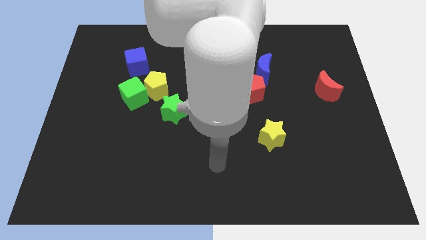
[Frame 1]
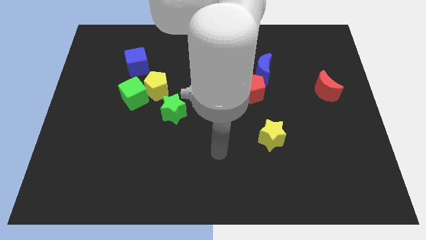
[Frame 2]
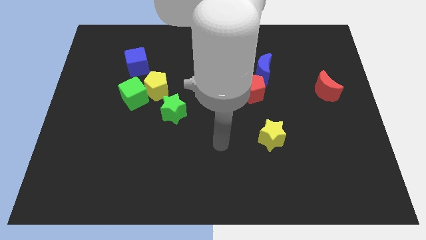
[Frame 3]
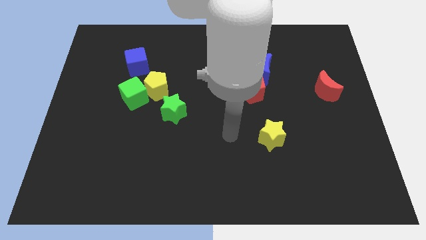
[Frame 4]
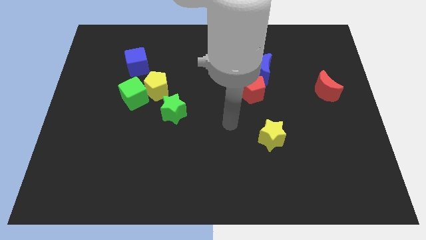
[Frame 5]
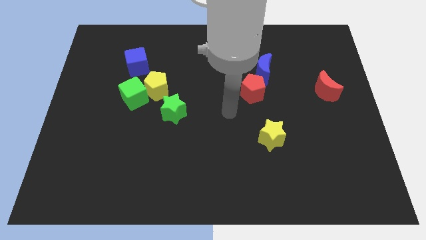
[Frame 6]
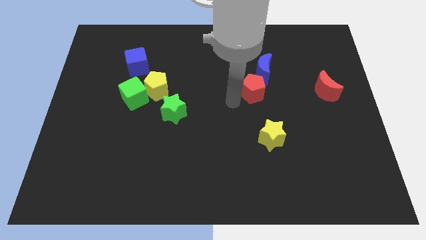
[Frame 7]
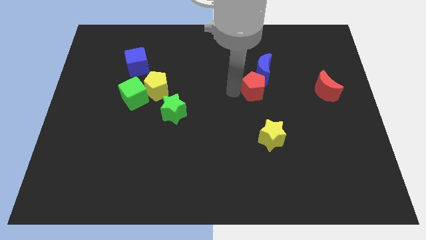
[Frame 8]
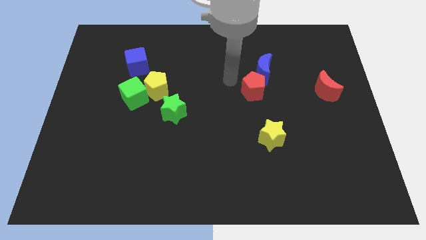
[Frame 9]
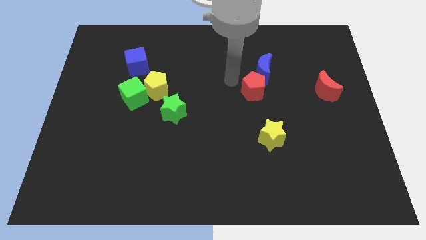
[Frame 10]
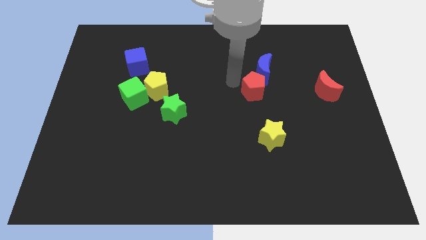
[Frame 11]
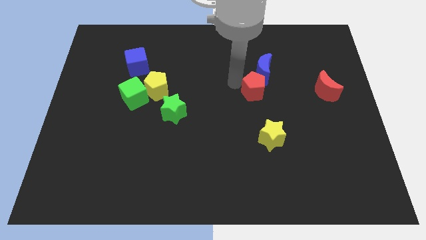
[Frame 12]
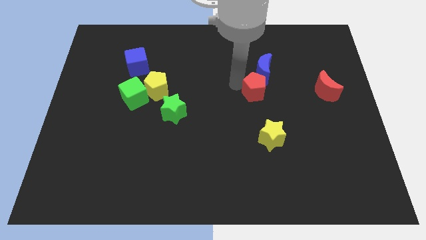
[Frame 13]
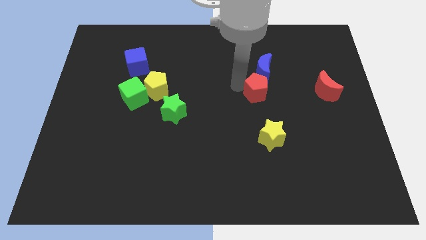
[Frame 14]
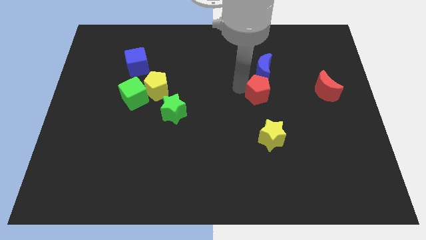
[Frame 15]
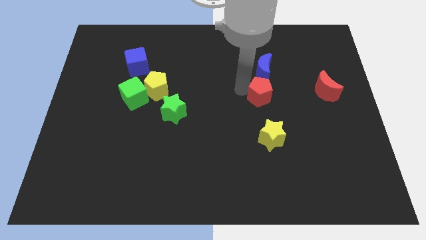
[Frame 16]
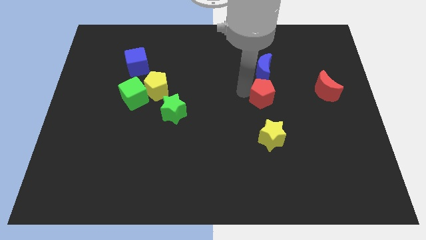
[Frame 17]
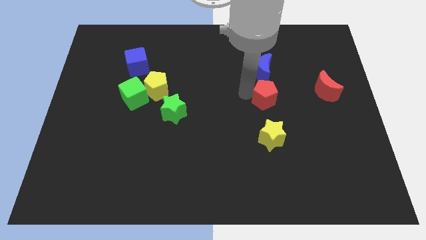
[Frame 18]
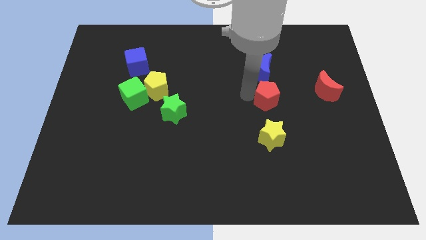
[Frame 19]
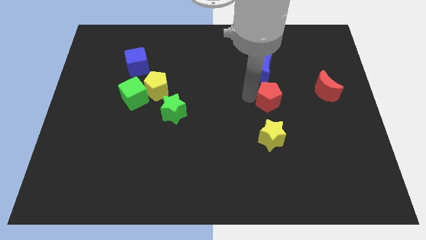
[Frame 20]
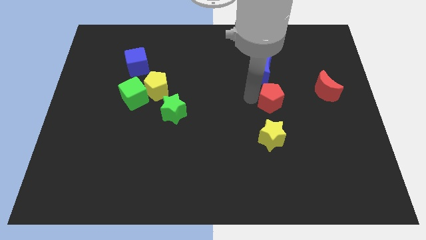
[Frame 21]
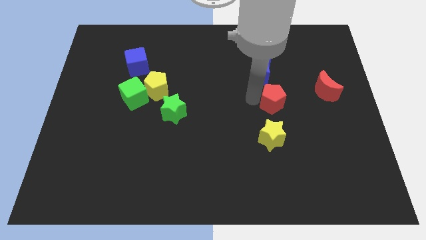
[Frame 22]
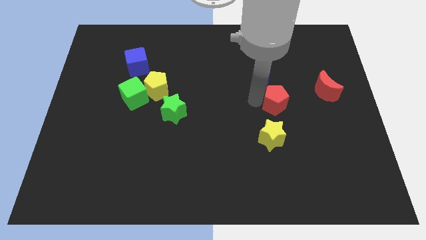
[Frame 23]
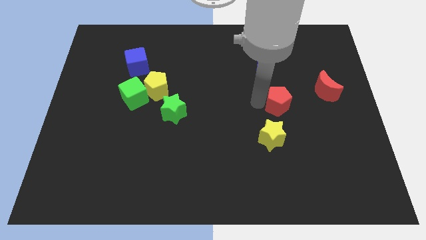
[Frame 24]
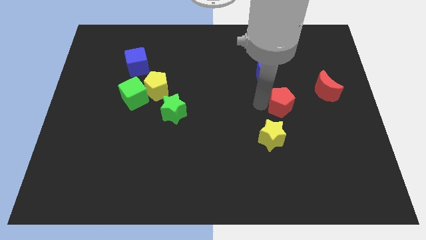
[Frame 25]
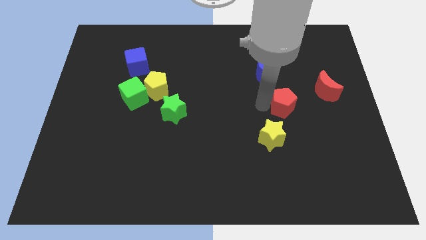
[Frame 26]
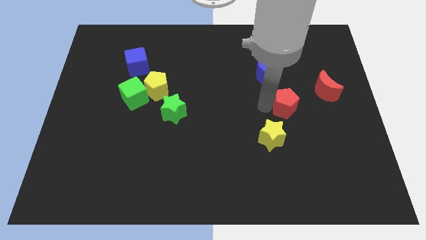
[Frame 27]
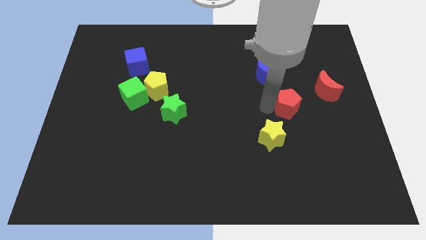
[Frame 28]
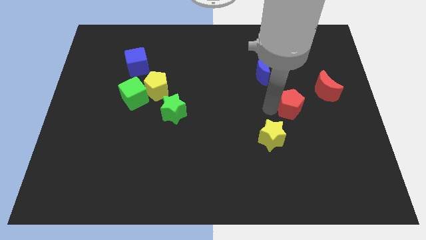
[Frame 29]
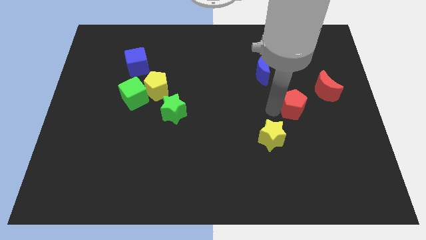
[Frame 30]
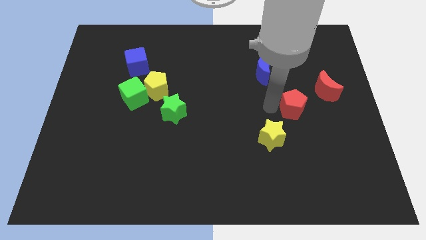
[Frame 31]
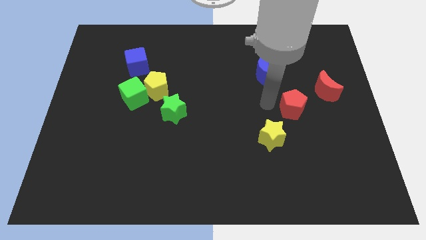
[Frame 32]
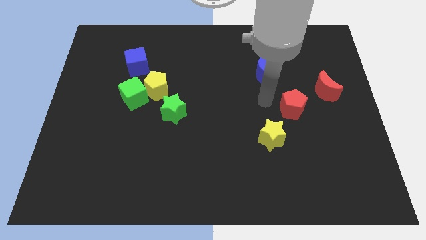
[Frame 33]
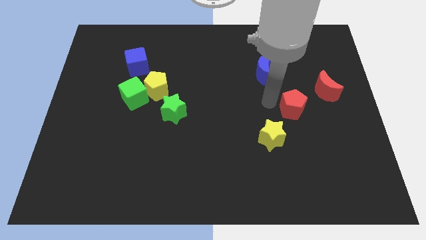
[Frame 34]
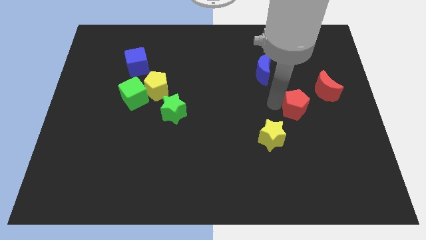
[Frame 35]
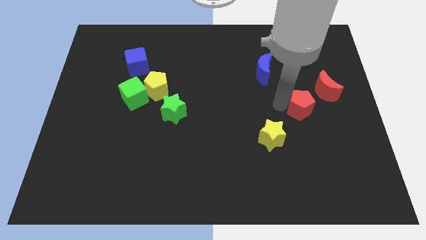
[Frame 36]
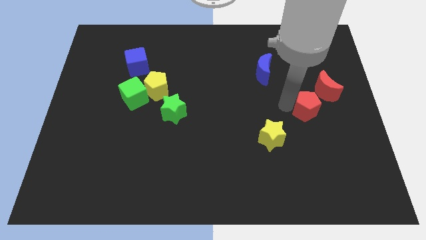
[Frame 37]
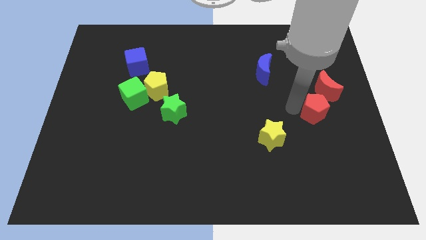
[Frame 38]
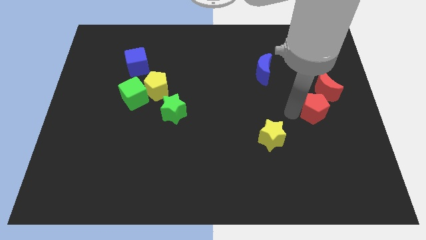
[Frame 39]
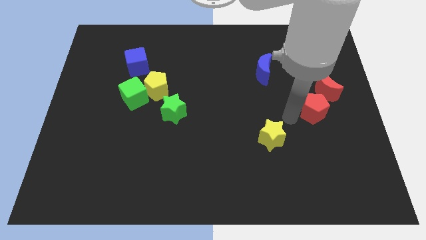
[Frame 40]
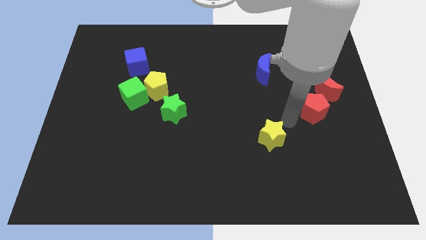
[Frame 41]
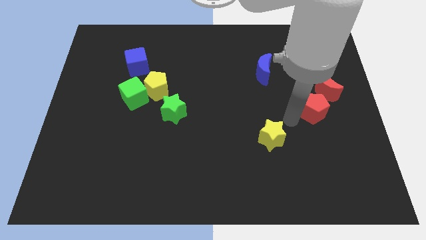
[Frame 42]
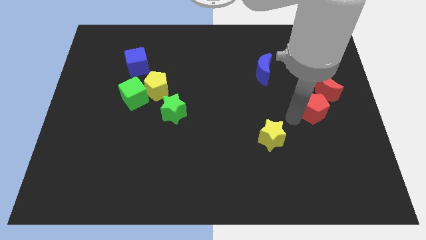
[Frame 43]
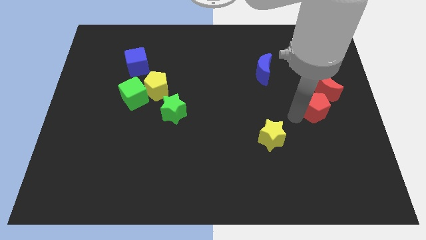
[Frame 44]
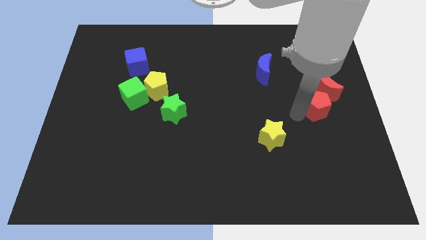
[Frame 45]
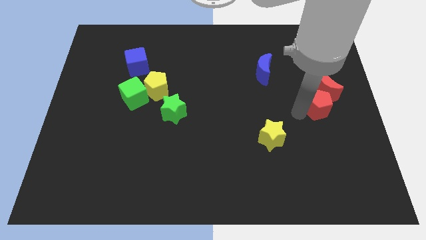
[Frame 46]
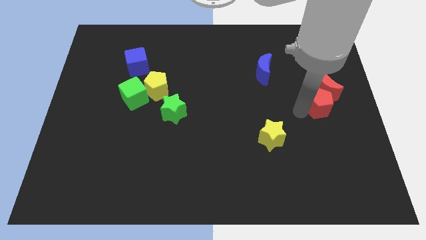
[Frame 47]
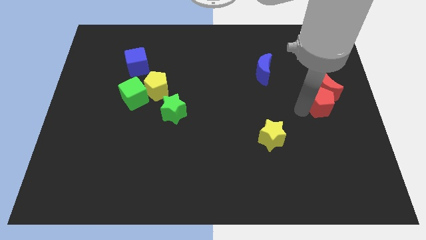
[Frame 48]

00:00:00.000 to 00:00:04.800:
move the red pentagon to the right side of the board

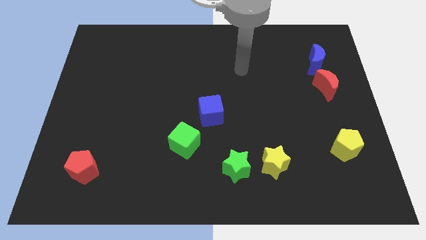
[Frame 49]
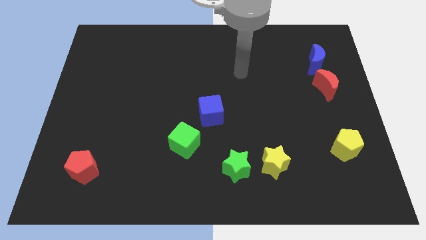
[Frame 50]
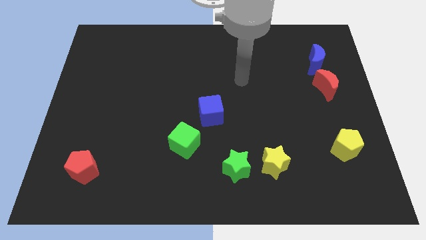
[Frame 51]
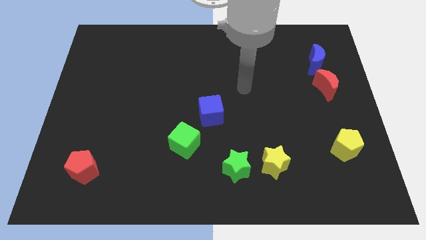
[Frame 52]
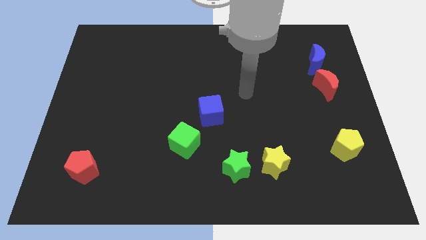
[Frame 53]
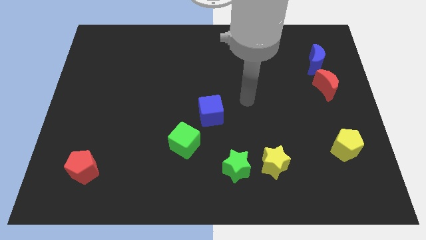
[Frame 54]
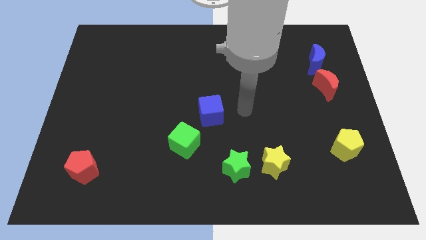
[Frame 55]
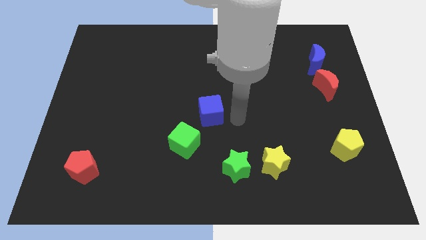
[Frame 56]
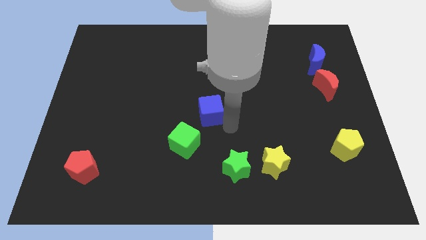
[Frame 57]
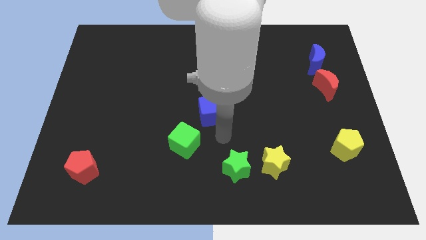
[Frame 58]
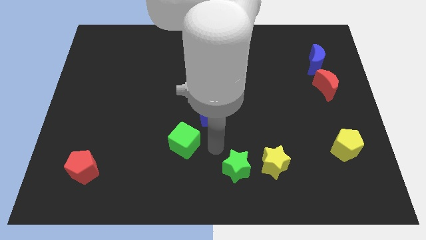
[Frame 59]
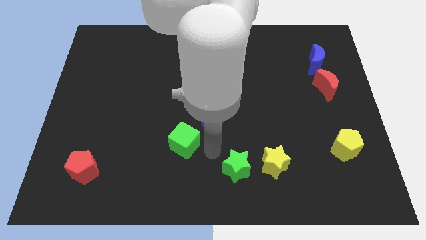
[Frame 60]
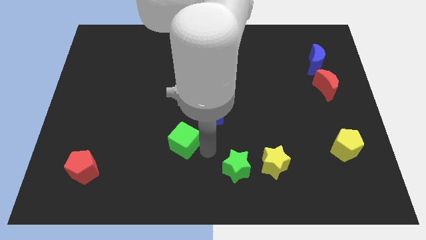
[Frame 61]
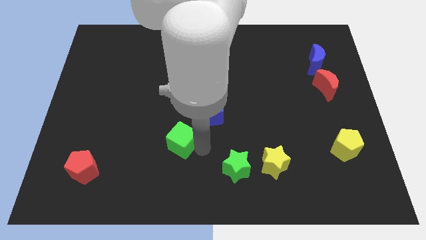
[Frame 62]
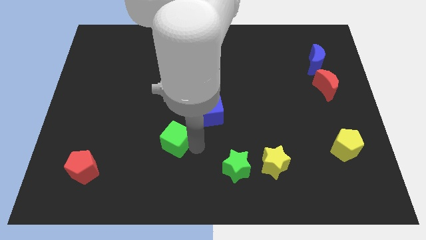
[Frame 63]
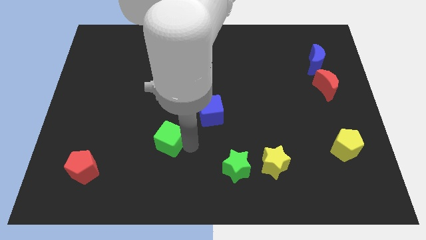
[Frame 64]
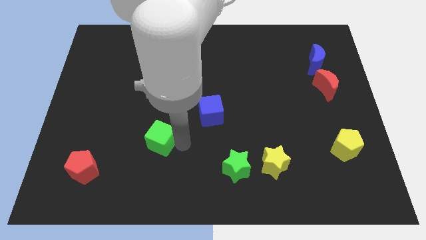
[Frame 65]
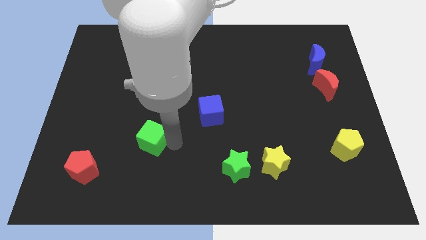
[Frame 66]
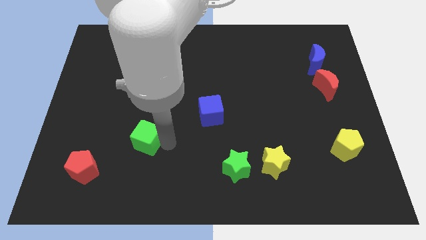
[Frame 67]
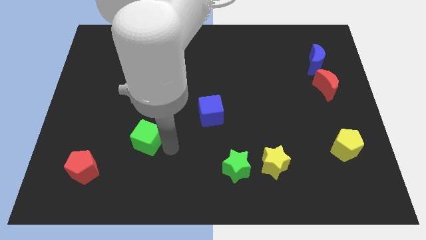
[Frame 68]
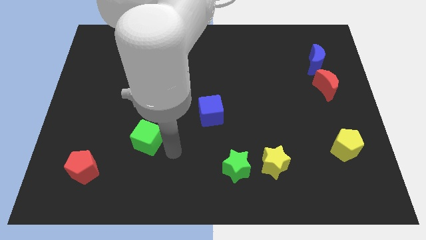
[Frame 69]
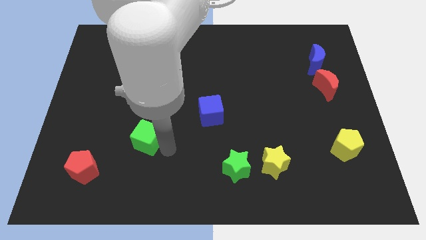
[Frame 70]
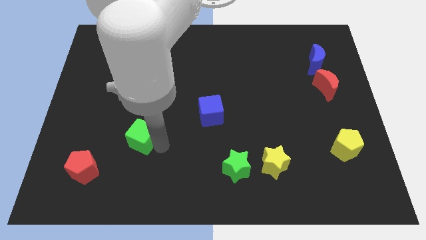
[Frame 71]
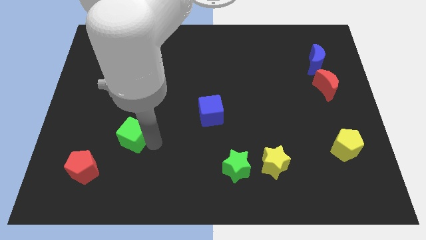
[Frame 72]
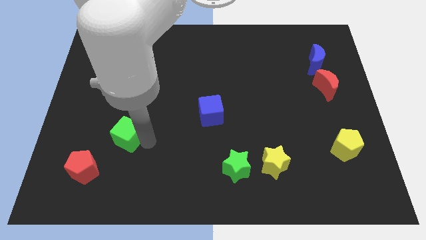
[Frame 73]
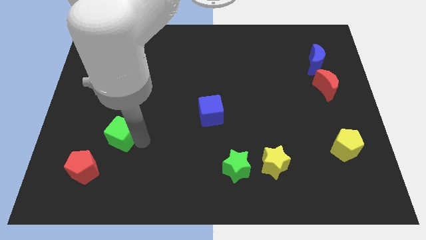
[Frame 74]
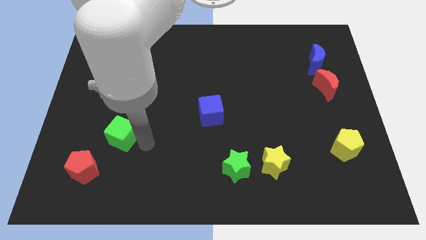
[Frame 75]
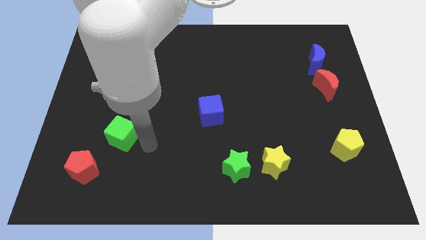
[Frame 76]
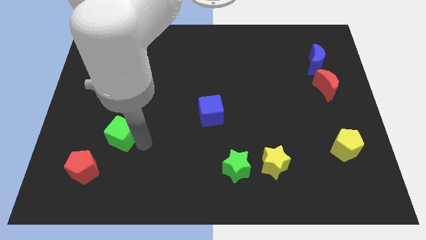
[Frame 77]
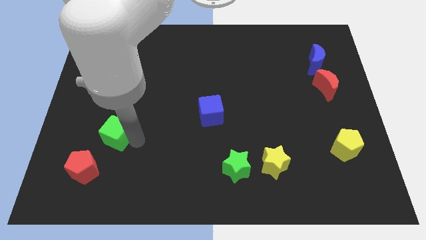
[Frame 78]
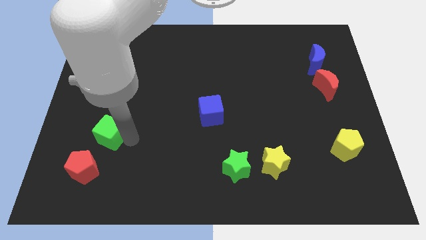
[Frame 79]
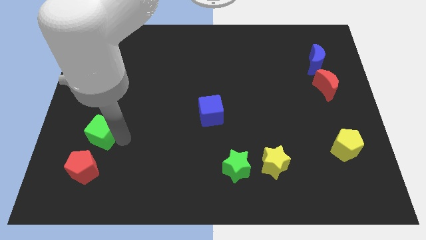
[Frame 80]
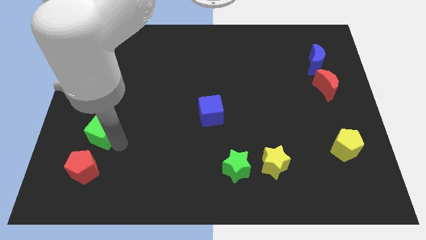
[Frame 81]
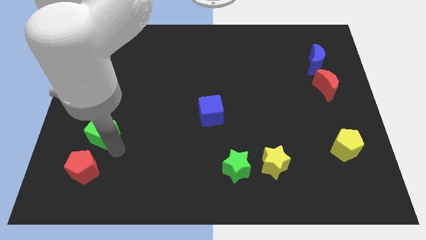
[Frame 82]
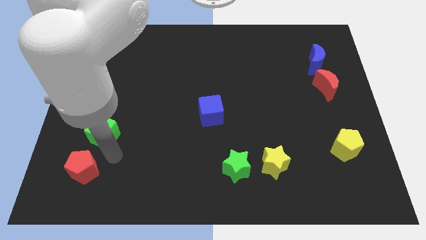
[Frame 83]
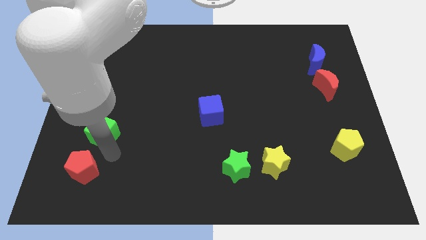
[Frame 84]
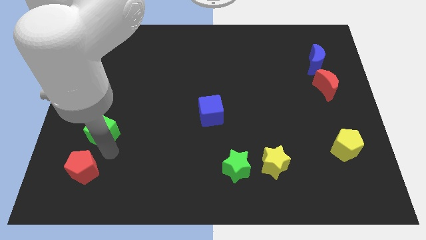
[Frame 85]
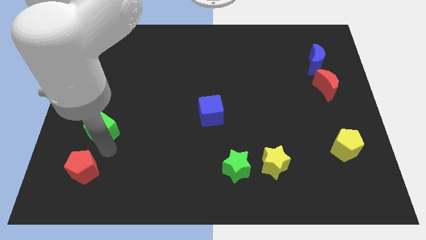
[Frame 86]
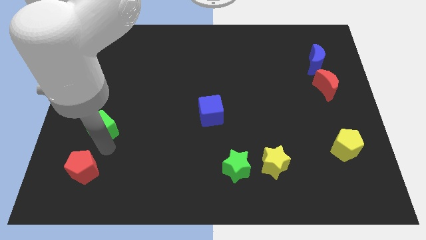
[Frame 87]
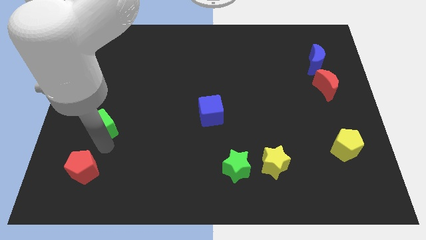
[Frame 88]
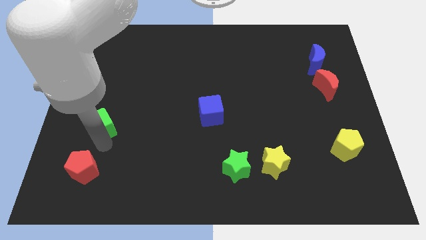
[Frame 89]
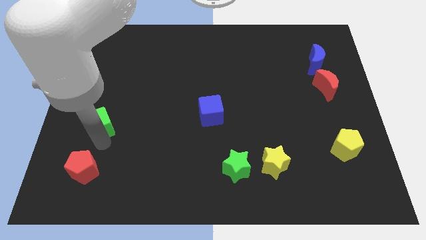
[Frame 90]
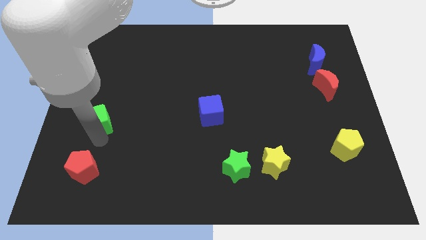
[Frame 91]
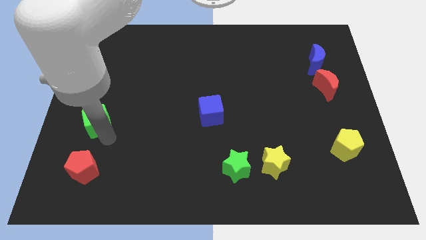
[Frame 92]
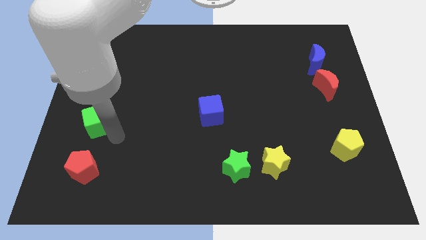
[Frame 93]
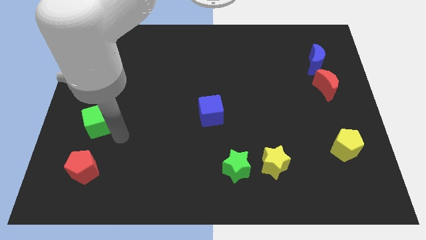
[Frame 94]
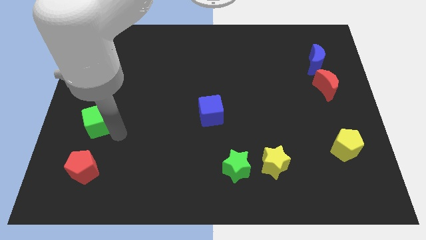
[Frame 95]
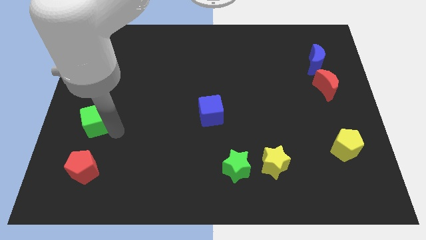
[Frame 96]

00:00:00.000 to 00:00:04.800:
push the green cube to the left side of the board
